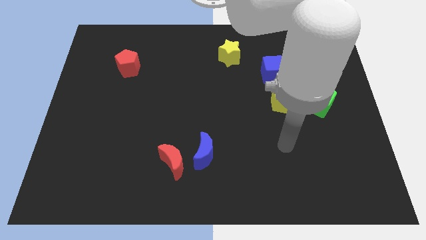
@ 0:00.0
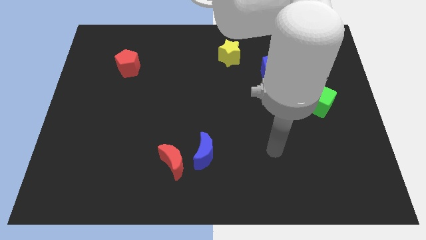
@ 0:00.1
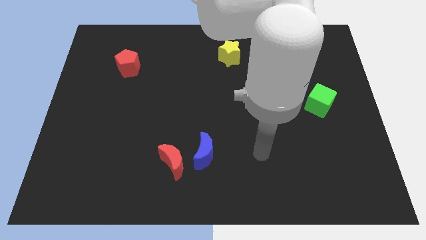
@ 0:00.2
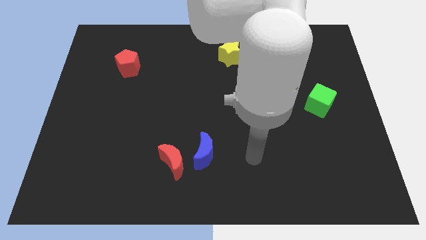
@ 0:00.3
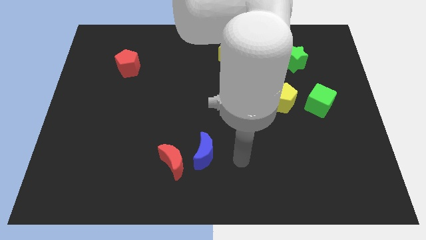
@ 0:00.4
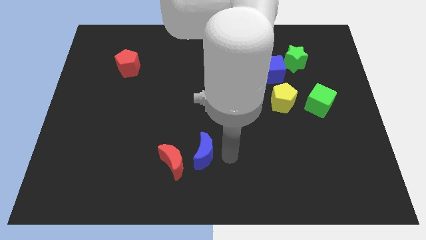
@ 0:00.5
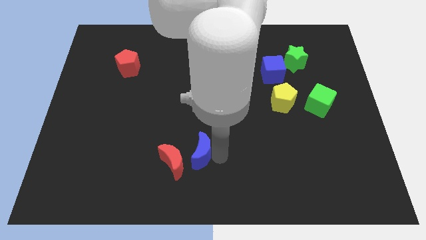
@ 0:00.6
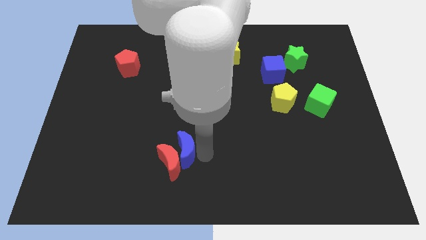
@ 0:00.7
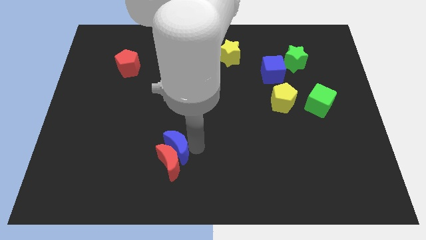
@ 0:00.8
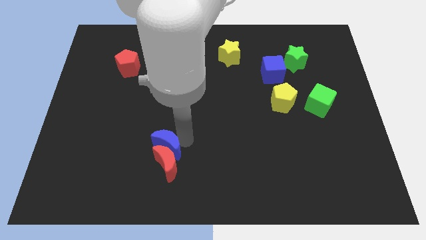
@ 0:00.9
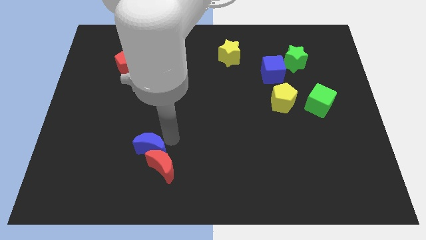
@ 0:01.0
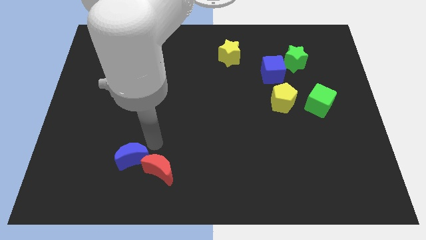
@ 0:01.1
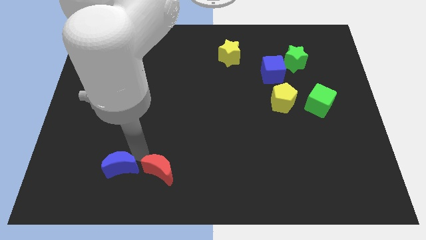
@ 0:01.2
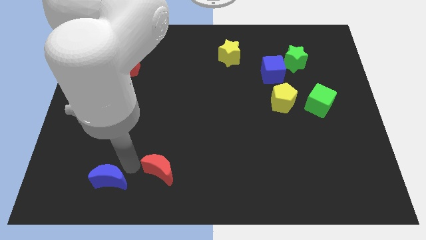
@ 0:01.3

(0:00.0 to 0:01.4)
pull the red moon apart from the blue moon

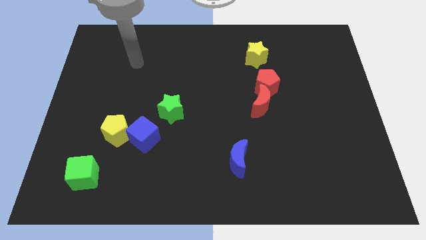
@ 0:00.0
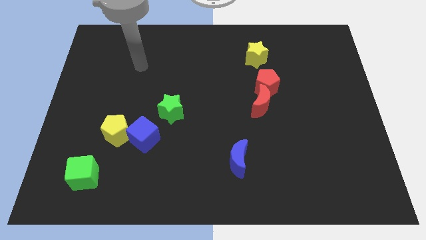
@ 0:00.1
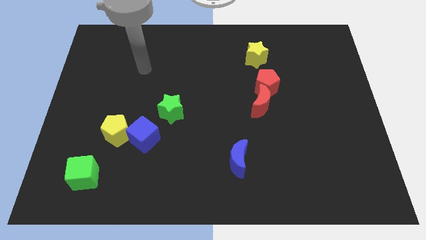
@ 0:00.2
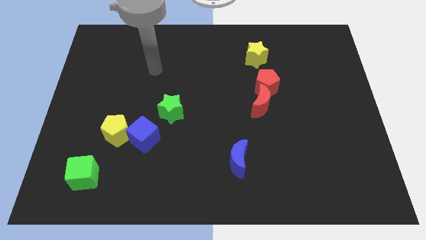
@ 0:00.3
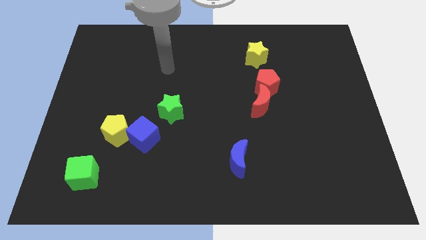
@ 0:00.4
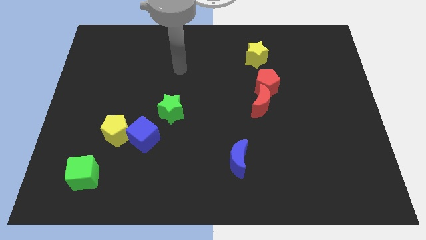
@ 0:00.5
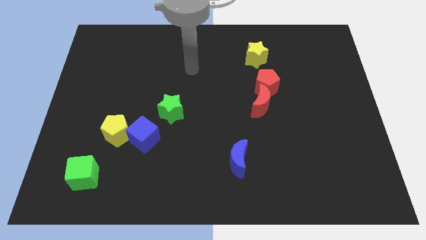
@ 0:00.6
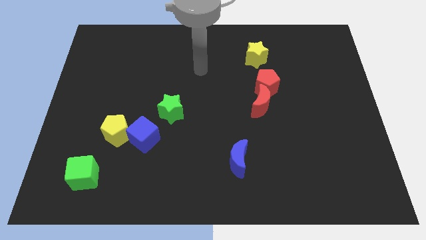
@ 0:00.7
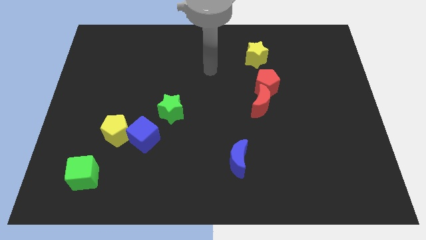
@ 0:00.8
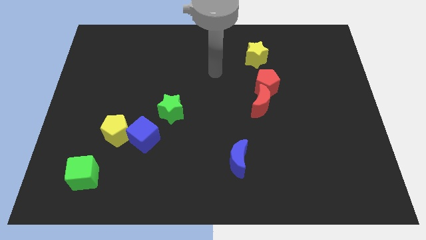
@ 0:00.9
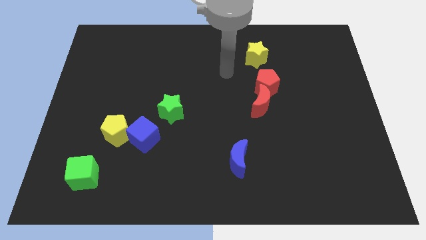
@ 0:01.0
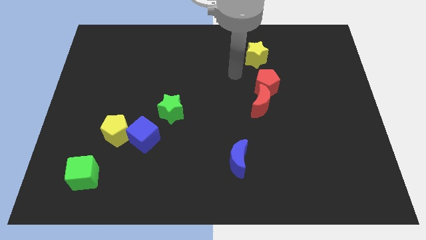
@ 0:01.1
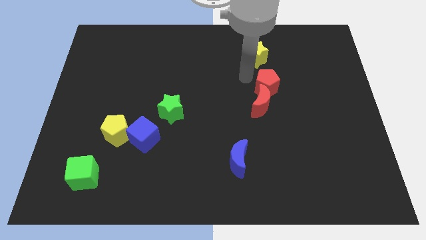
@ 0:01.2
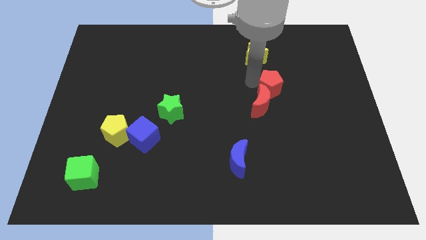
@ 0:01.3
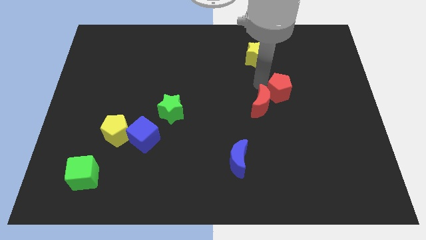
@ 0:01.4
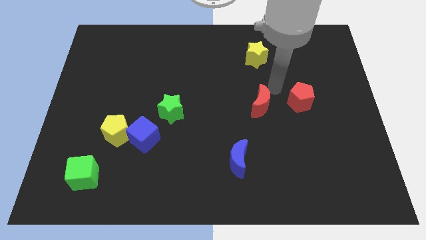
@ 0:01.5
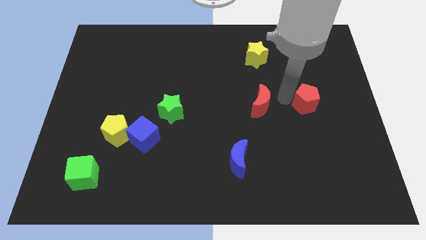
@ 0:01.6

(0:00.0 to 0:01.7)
separate the red moon from the red pentagon

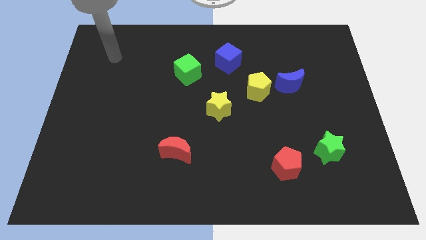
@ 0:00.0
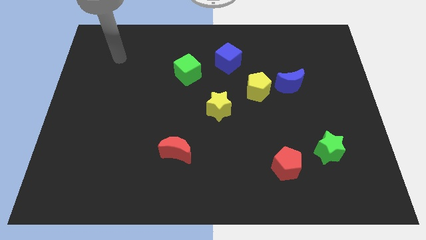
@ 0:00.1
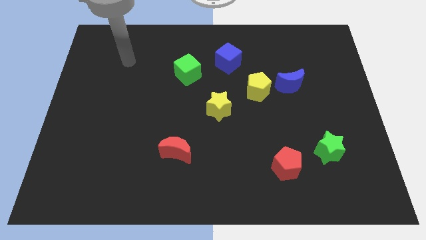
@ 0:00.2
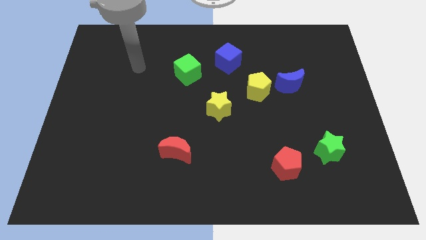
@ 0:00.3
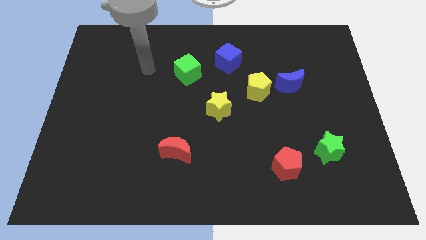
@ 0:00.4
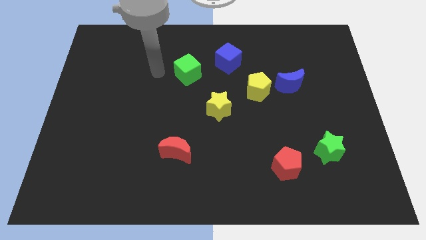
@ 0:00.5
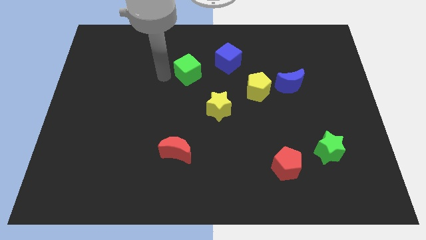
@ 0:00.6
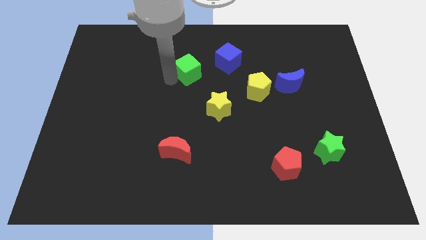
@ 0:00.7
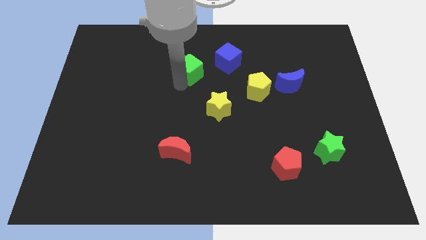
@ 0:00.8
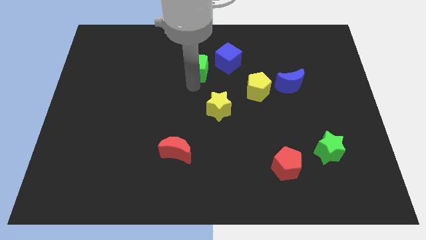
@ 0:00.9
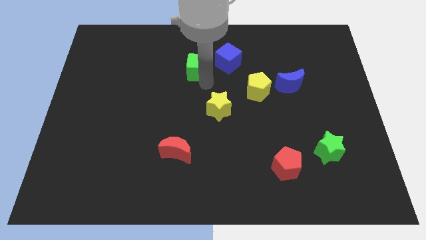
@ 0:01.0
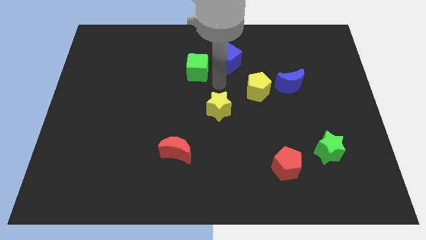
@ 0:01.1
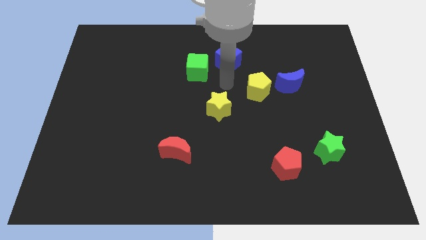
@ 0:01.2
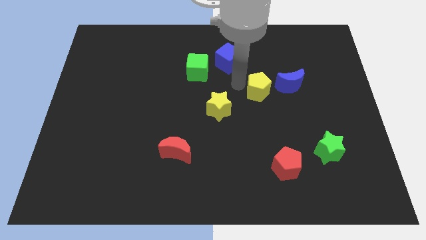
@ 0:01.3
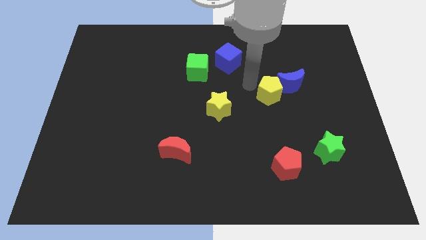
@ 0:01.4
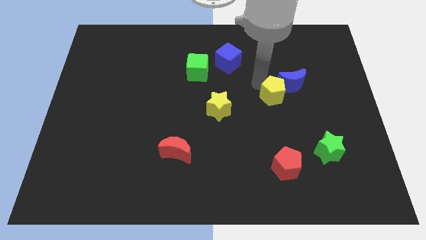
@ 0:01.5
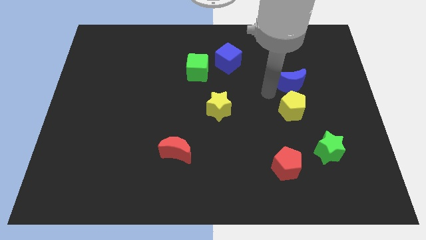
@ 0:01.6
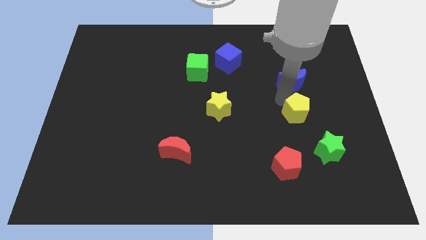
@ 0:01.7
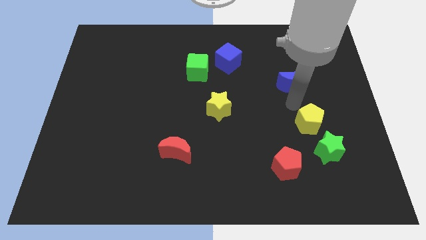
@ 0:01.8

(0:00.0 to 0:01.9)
separate the blue moon from the yellow pentagon

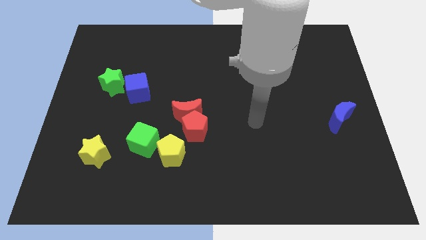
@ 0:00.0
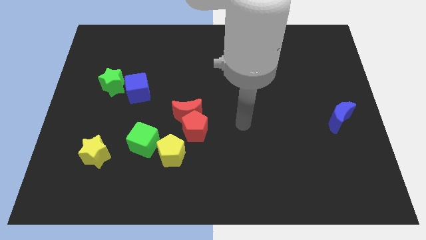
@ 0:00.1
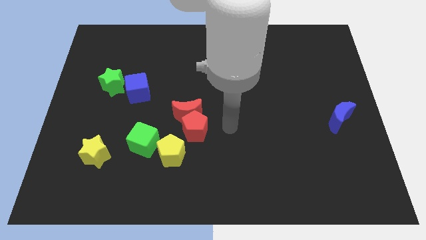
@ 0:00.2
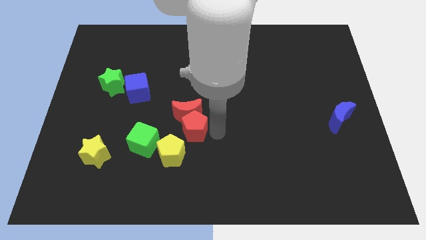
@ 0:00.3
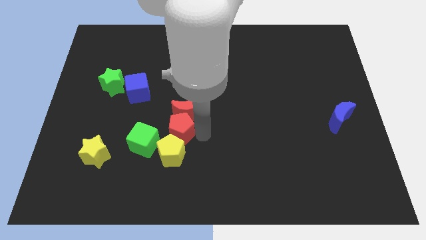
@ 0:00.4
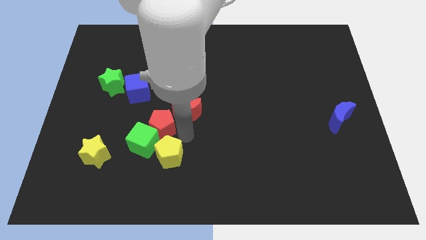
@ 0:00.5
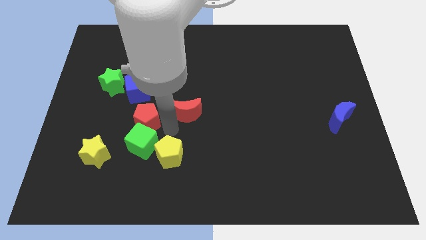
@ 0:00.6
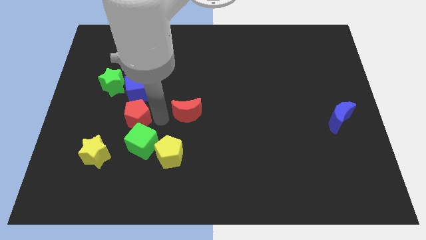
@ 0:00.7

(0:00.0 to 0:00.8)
pull the red moon apart from the red pentagon

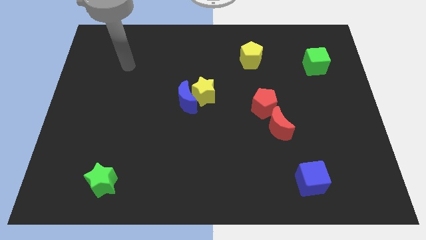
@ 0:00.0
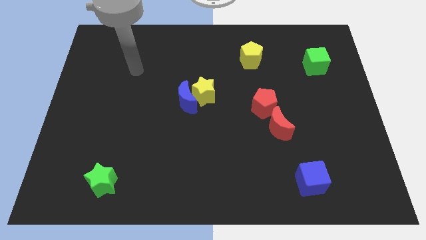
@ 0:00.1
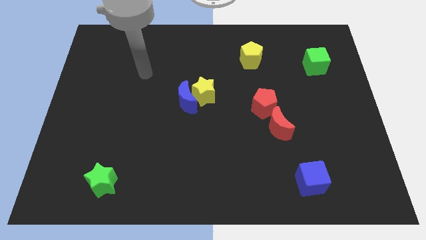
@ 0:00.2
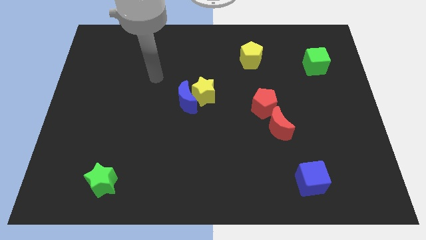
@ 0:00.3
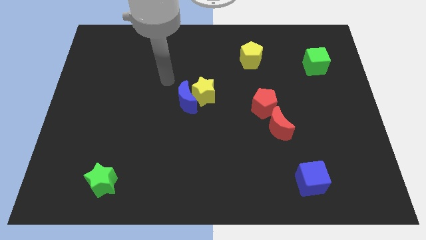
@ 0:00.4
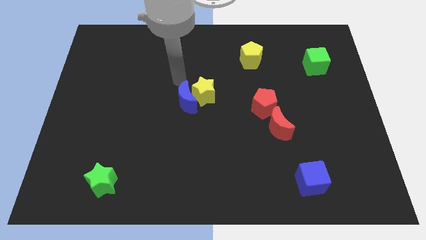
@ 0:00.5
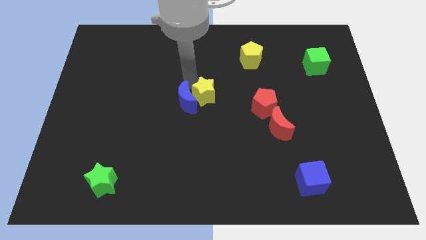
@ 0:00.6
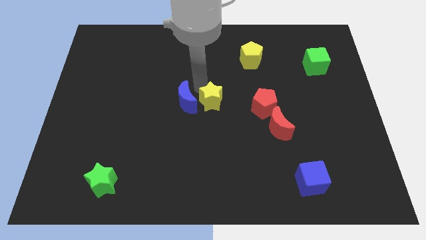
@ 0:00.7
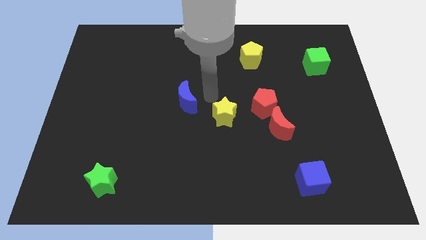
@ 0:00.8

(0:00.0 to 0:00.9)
move the blue moon away from the yellow star

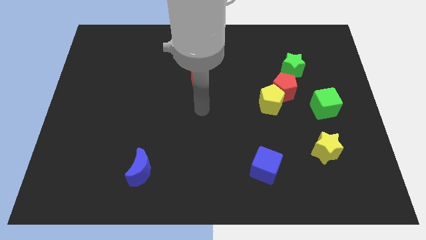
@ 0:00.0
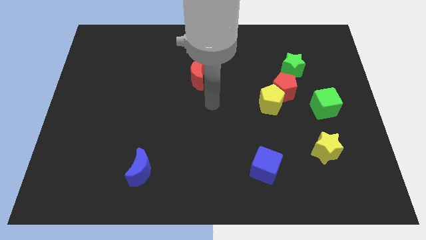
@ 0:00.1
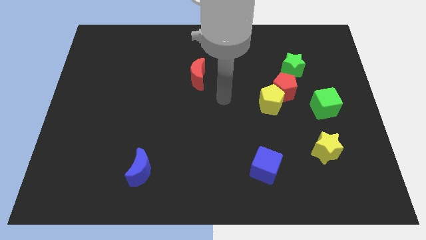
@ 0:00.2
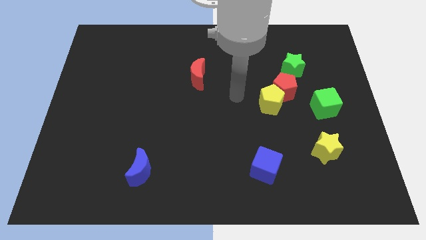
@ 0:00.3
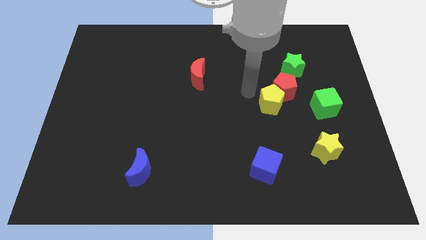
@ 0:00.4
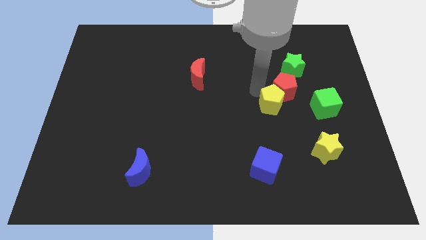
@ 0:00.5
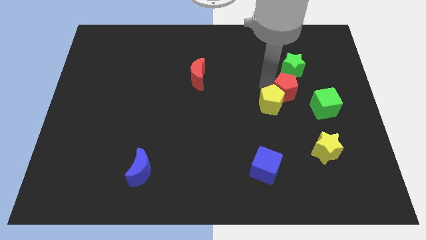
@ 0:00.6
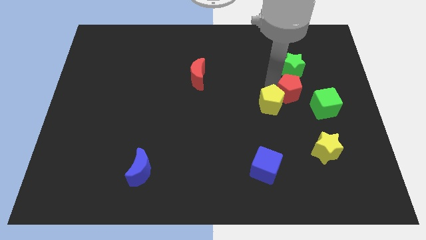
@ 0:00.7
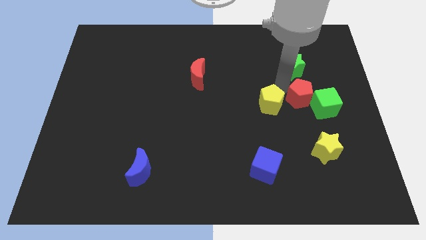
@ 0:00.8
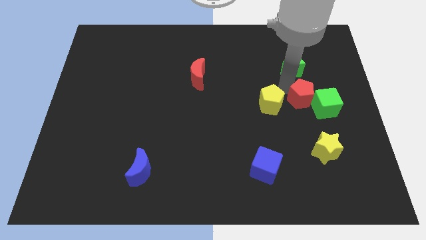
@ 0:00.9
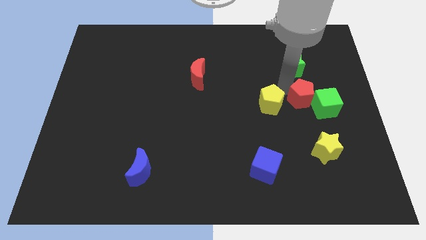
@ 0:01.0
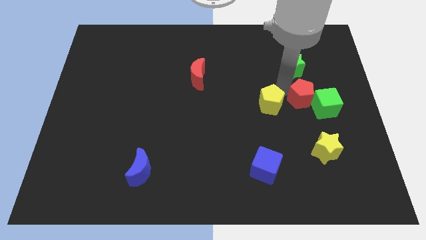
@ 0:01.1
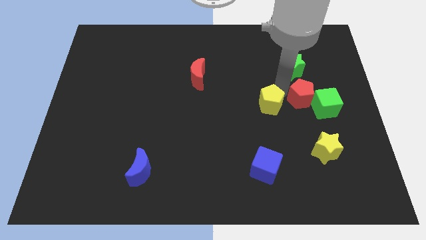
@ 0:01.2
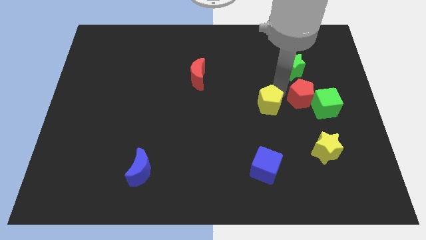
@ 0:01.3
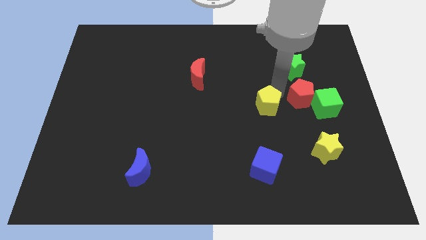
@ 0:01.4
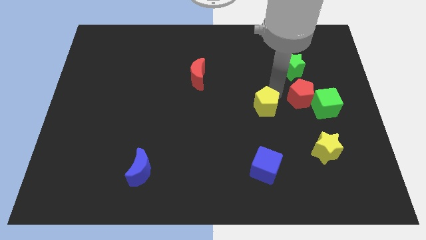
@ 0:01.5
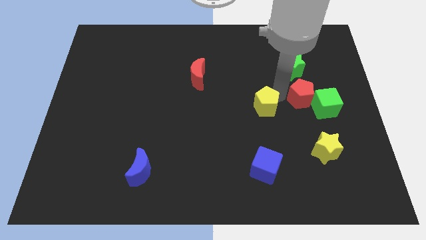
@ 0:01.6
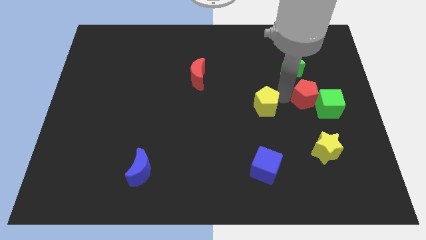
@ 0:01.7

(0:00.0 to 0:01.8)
separate the yellow pentagon from the red pentagon

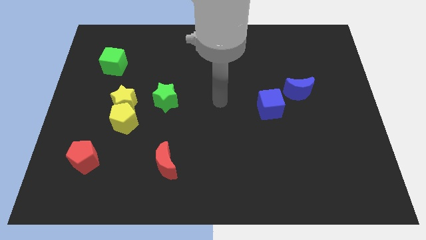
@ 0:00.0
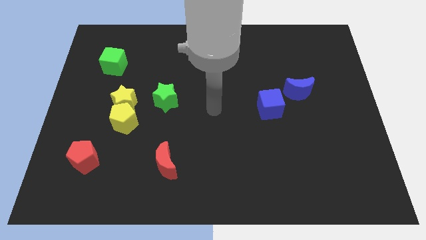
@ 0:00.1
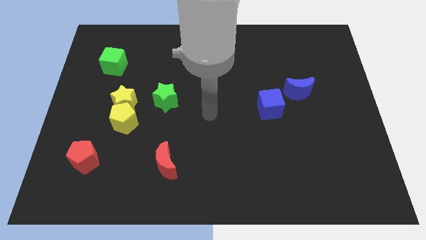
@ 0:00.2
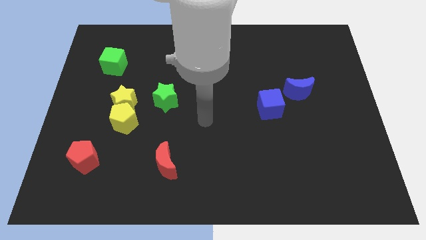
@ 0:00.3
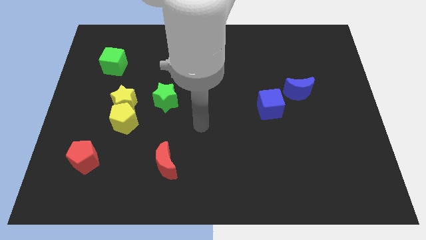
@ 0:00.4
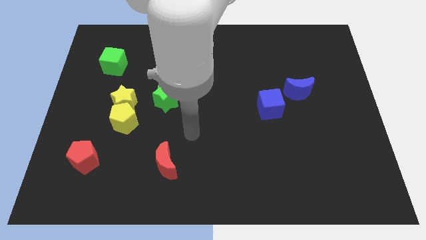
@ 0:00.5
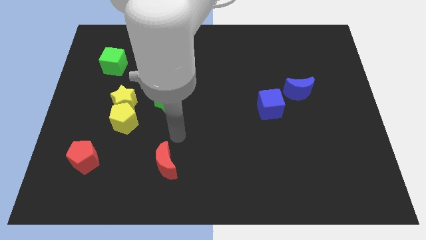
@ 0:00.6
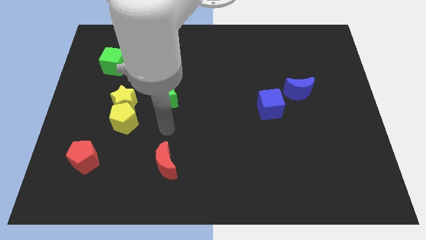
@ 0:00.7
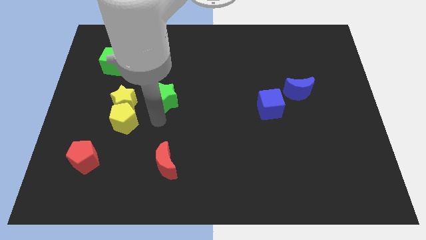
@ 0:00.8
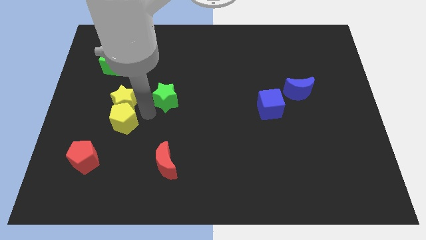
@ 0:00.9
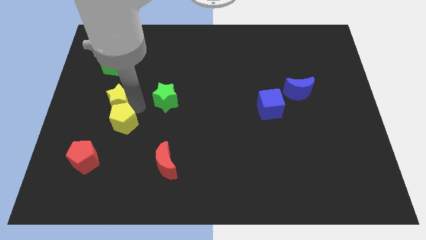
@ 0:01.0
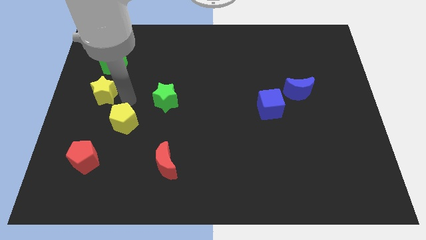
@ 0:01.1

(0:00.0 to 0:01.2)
pull the yellow pentagon apart from the yellow star
